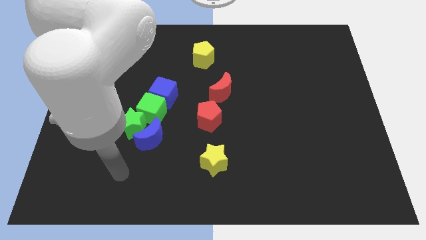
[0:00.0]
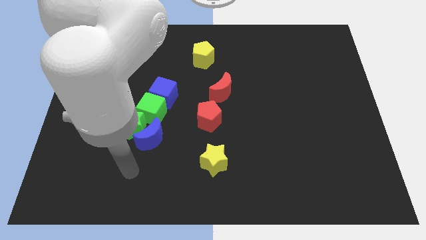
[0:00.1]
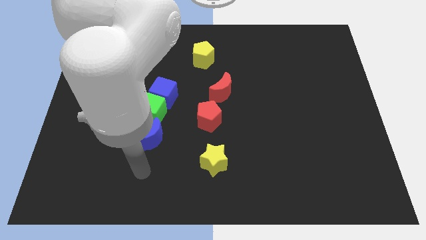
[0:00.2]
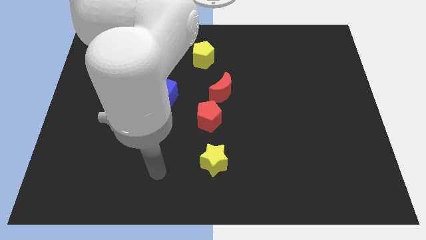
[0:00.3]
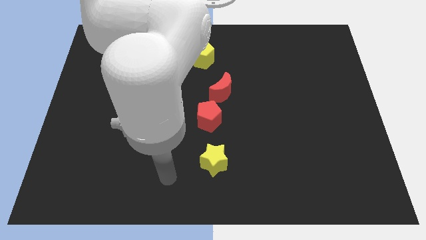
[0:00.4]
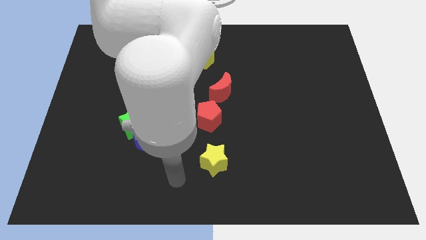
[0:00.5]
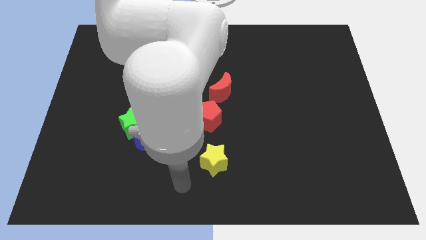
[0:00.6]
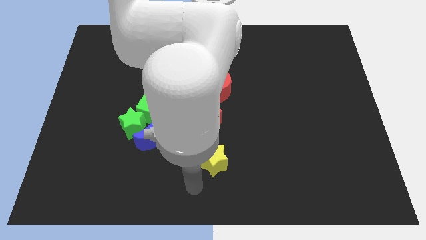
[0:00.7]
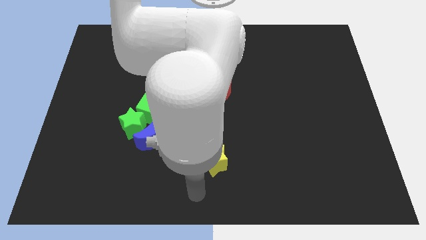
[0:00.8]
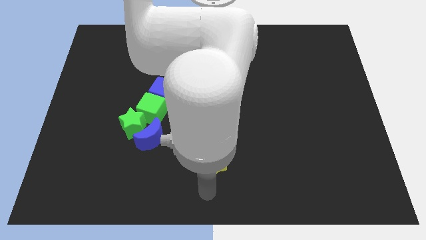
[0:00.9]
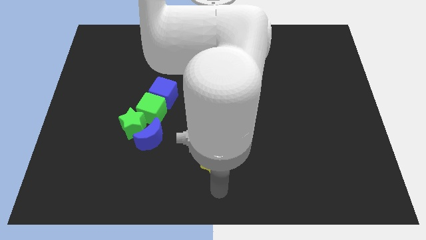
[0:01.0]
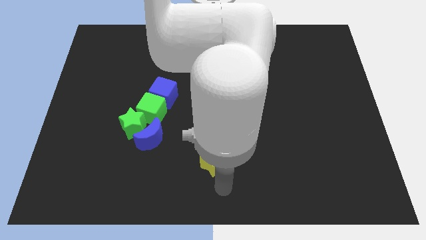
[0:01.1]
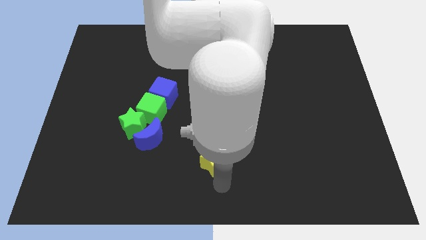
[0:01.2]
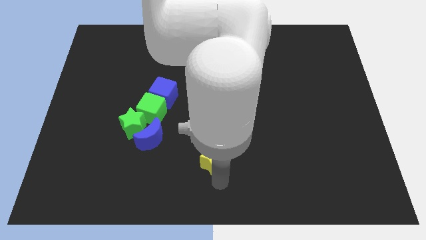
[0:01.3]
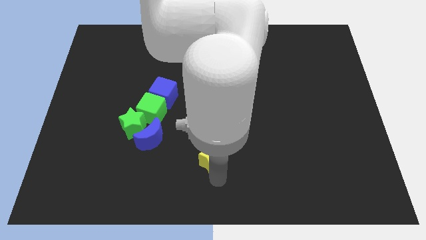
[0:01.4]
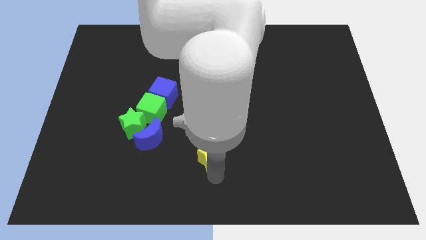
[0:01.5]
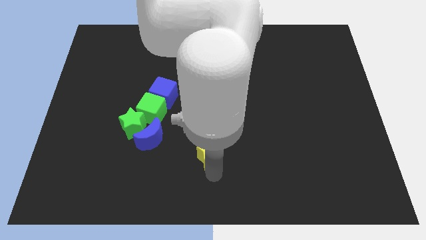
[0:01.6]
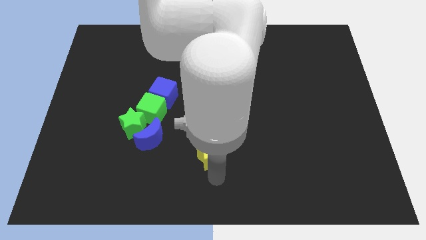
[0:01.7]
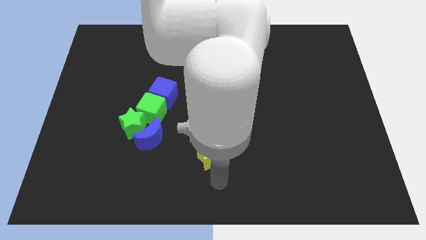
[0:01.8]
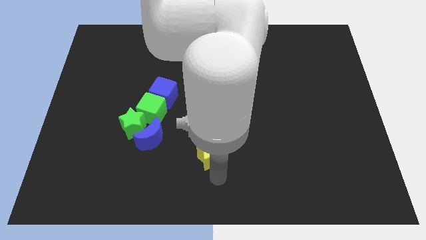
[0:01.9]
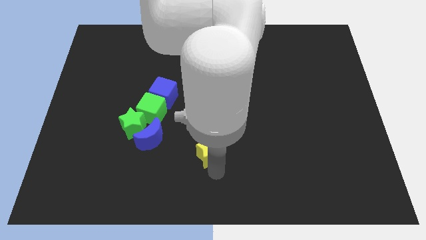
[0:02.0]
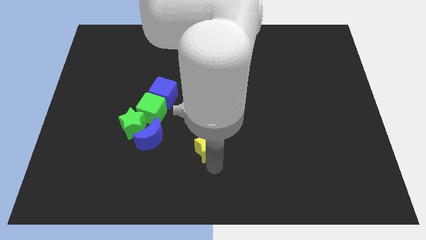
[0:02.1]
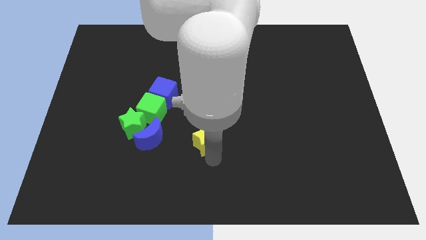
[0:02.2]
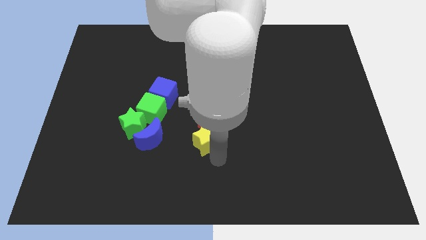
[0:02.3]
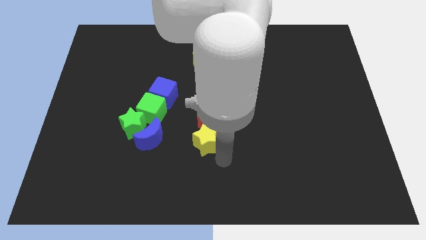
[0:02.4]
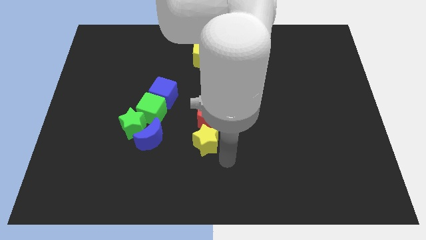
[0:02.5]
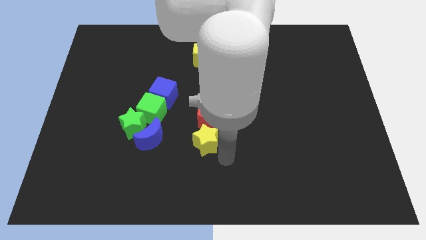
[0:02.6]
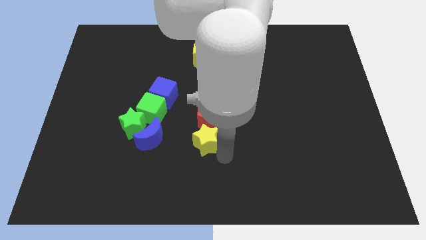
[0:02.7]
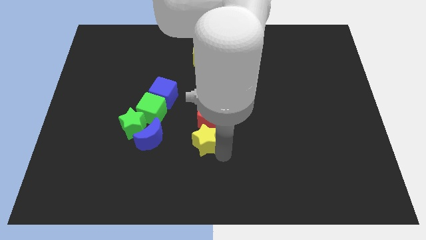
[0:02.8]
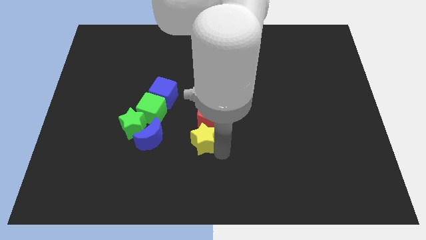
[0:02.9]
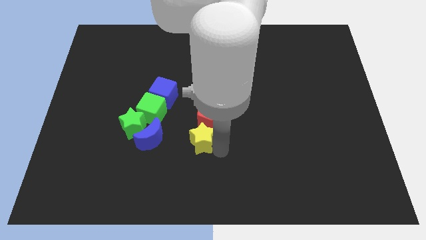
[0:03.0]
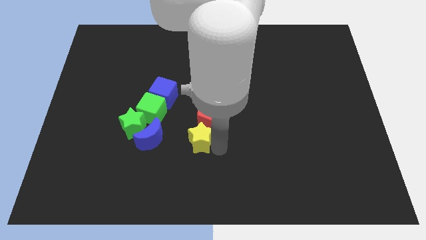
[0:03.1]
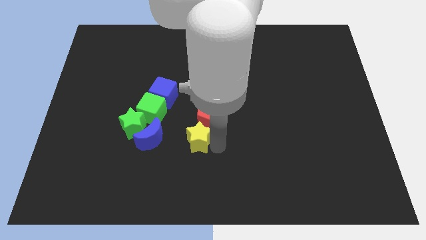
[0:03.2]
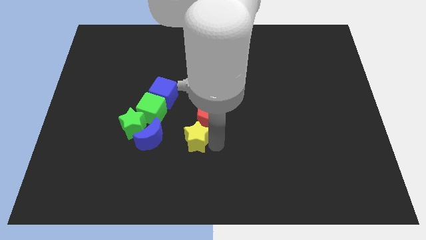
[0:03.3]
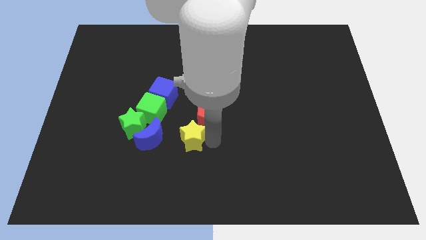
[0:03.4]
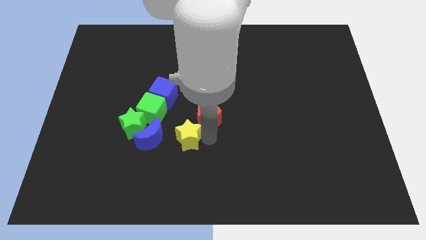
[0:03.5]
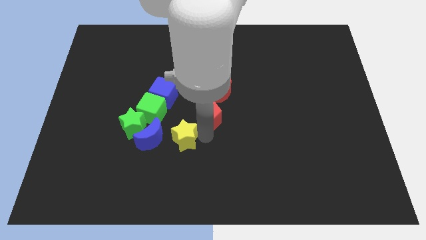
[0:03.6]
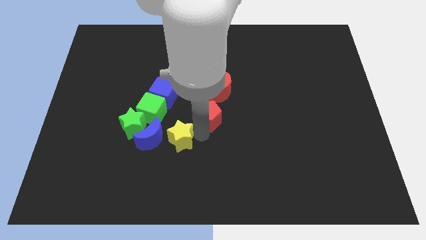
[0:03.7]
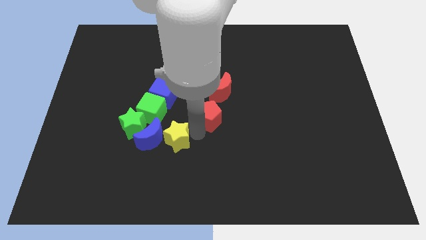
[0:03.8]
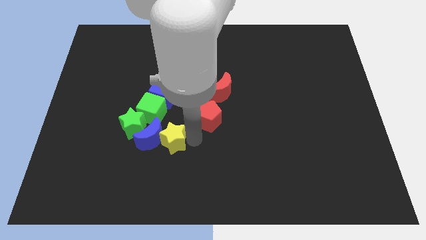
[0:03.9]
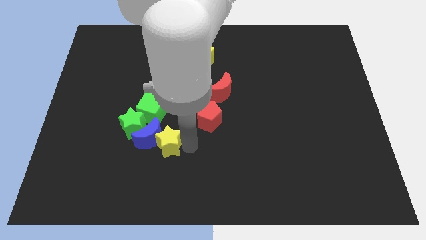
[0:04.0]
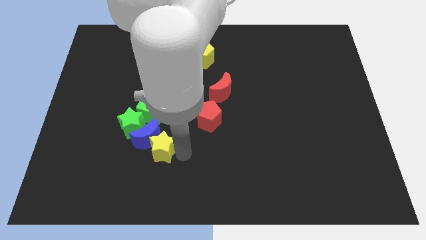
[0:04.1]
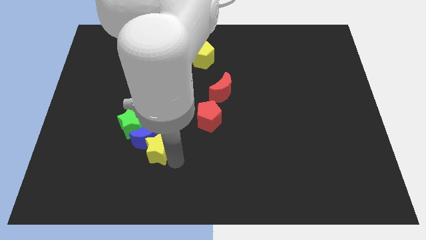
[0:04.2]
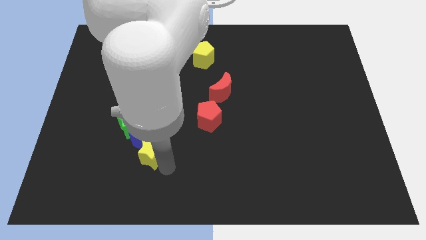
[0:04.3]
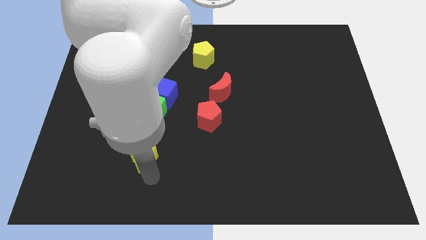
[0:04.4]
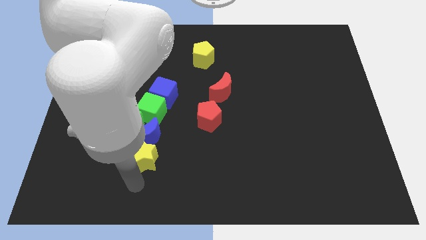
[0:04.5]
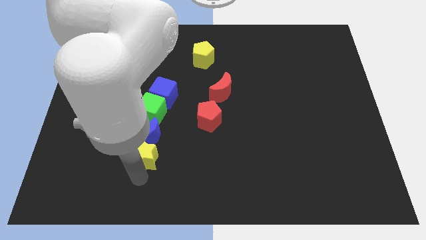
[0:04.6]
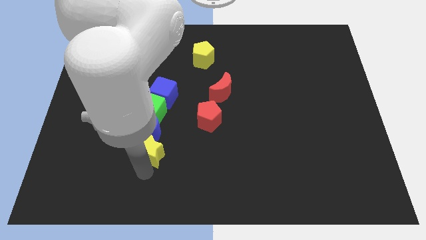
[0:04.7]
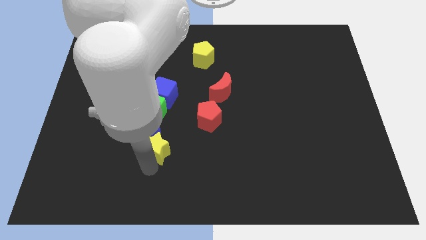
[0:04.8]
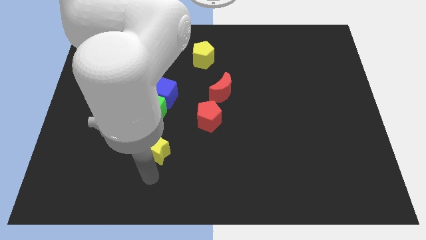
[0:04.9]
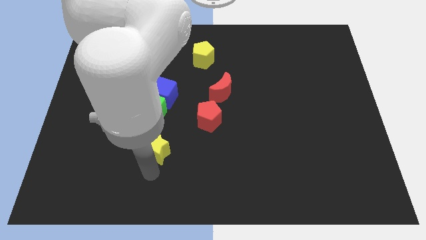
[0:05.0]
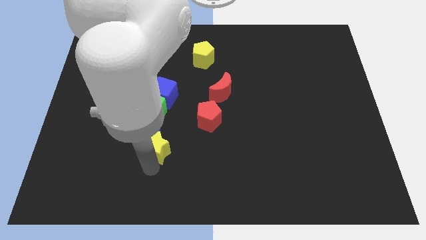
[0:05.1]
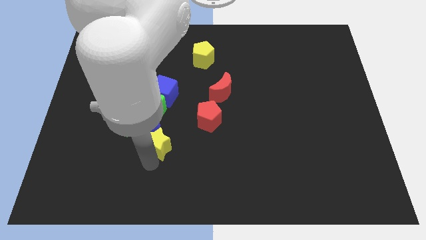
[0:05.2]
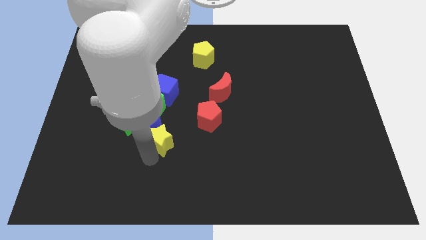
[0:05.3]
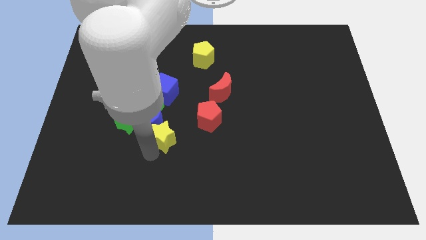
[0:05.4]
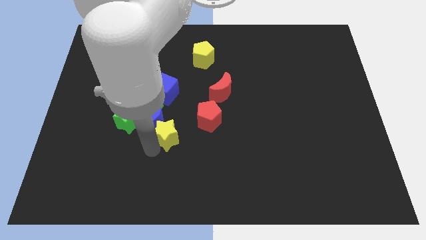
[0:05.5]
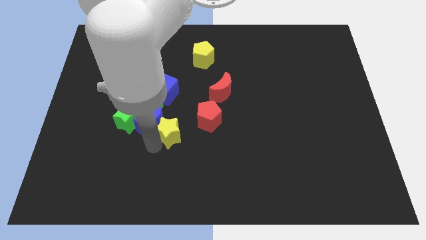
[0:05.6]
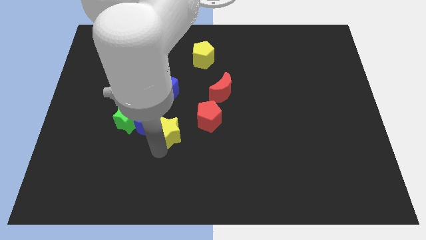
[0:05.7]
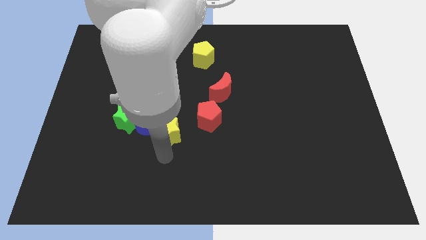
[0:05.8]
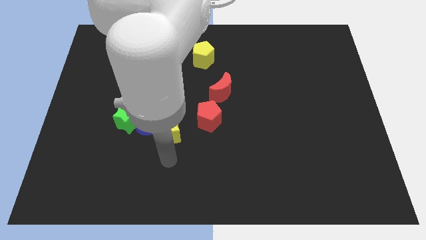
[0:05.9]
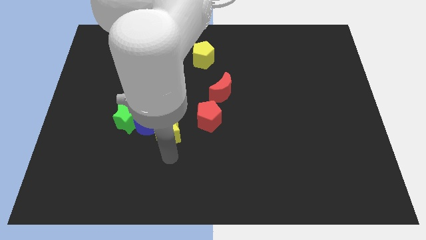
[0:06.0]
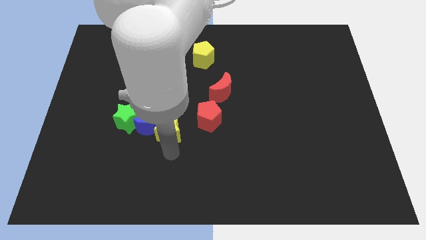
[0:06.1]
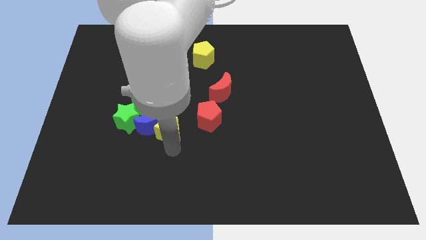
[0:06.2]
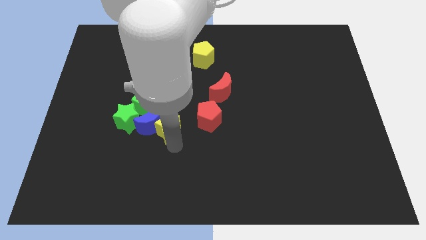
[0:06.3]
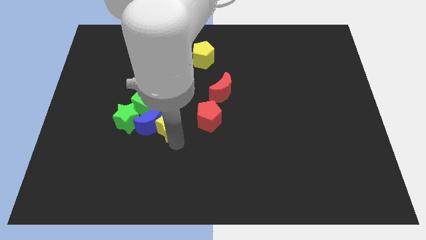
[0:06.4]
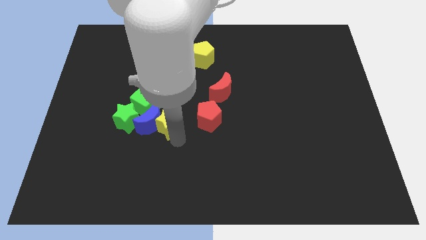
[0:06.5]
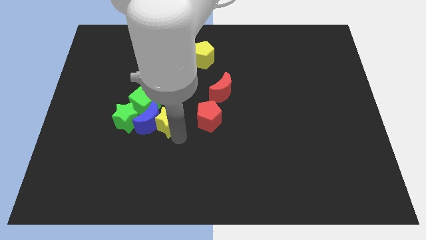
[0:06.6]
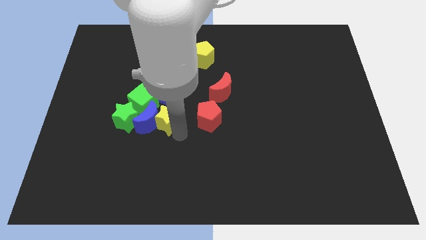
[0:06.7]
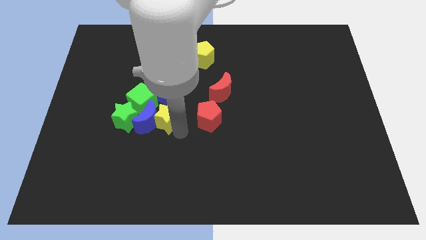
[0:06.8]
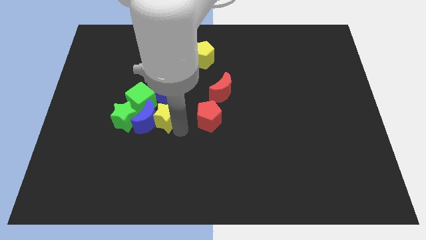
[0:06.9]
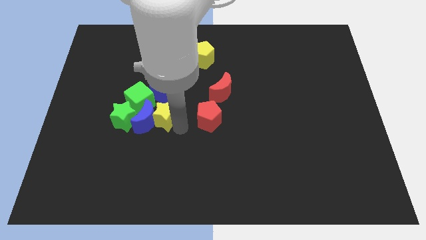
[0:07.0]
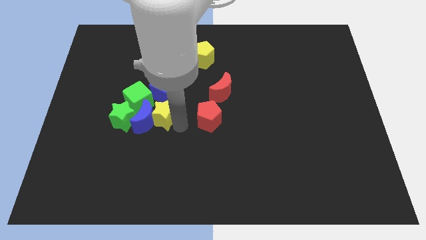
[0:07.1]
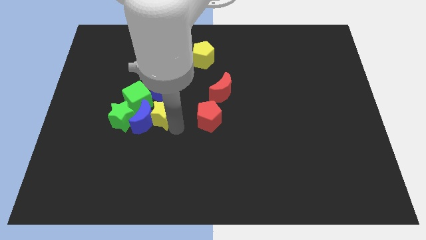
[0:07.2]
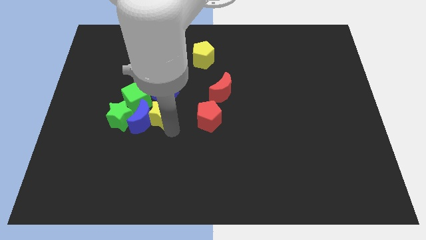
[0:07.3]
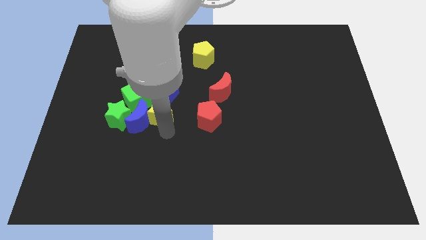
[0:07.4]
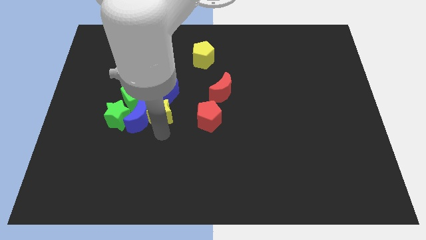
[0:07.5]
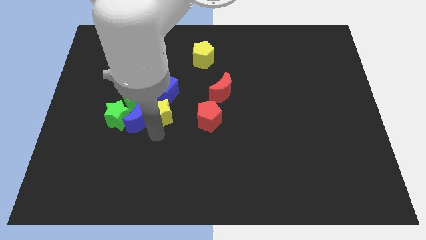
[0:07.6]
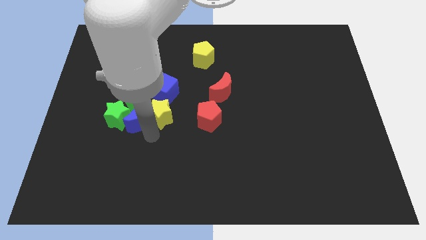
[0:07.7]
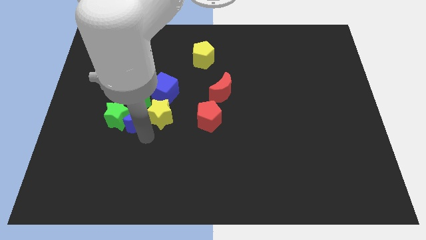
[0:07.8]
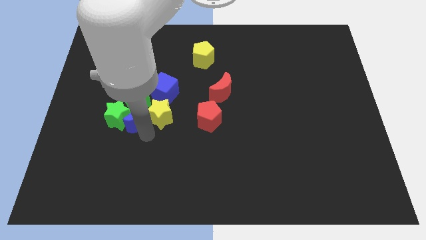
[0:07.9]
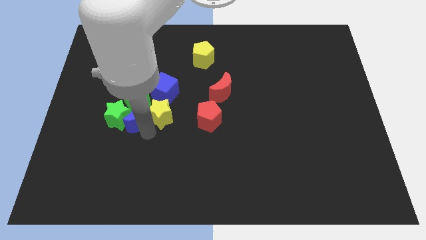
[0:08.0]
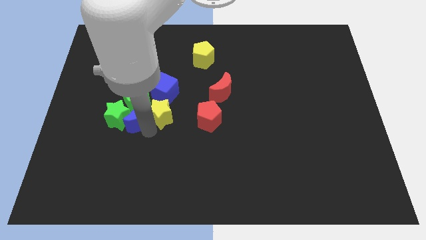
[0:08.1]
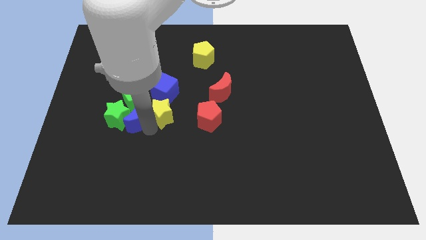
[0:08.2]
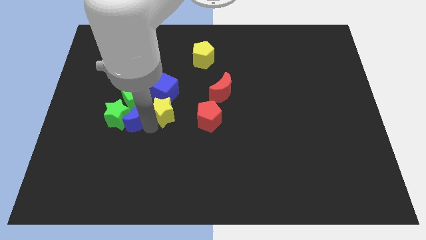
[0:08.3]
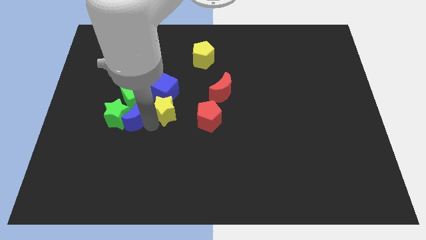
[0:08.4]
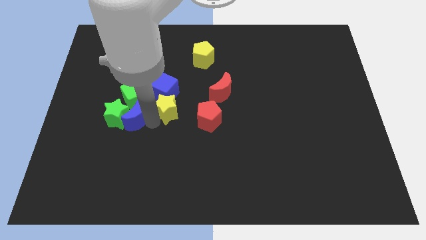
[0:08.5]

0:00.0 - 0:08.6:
slide the yellow star close to the blue cube
